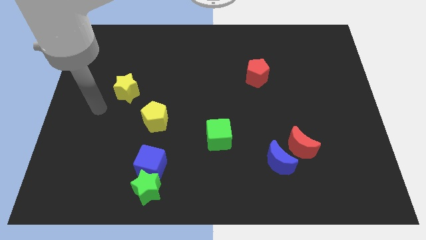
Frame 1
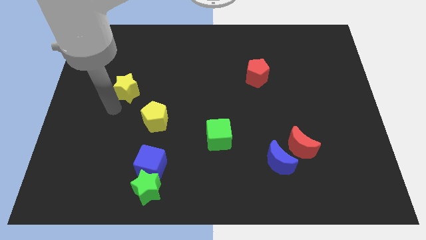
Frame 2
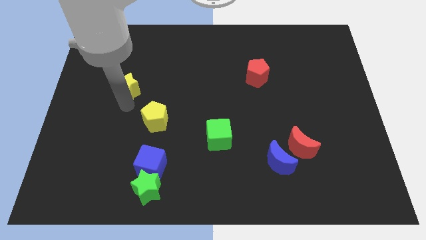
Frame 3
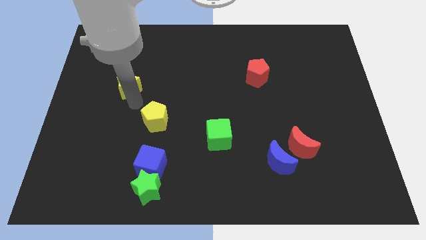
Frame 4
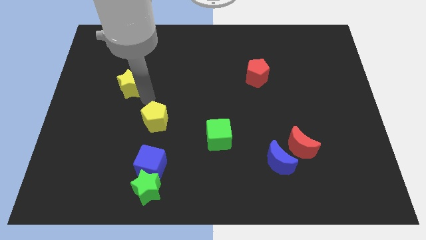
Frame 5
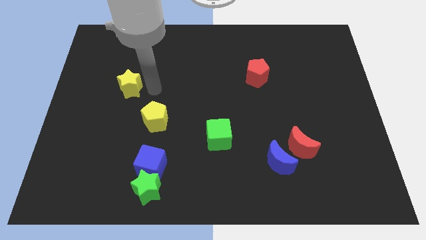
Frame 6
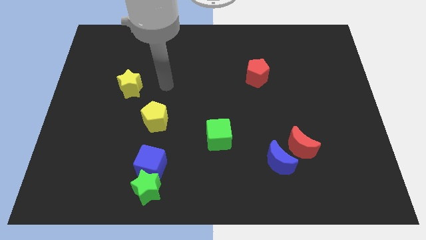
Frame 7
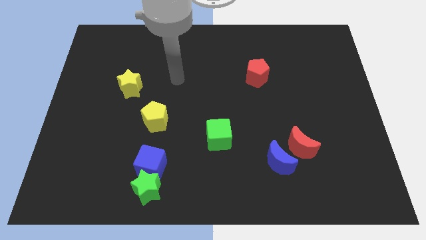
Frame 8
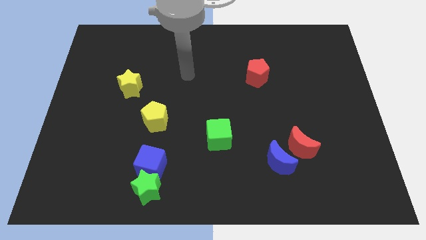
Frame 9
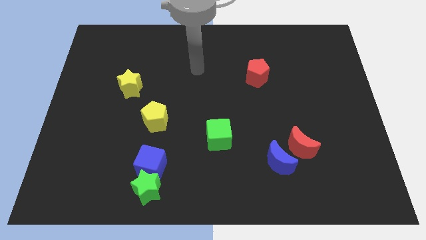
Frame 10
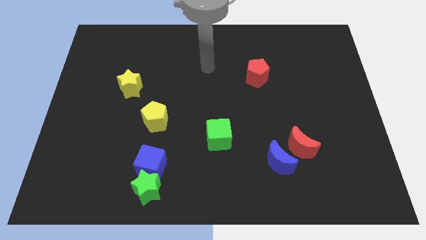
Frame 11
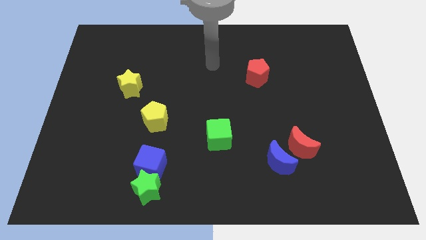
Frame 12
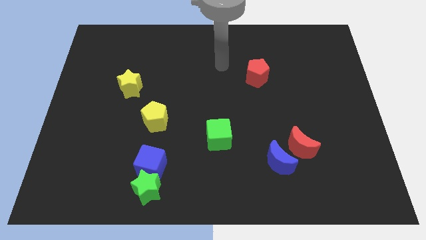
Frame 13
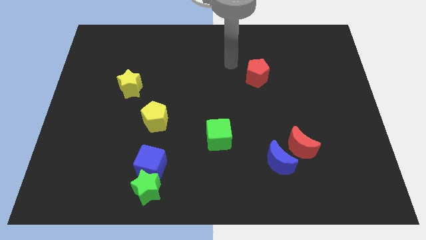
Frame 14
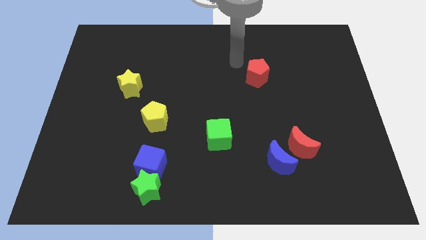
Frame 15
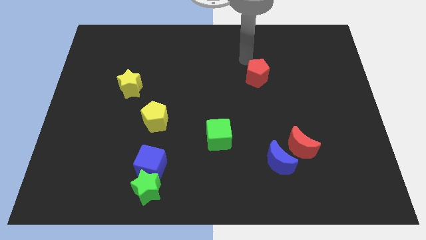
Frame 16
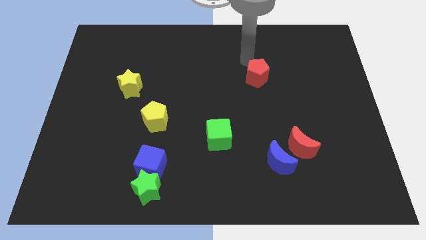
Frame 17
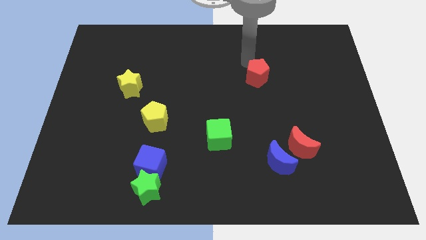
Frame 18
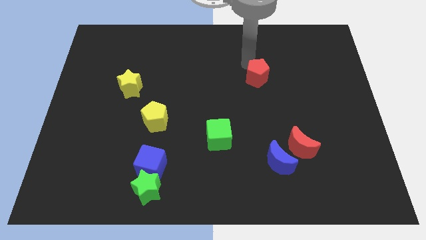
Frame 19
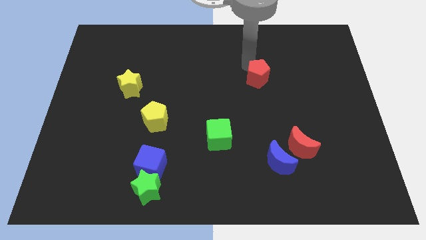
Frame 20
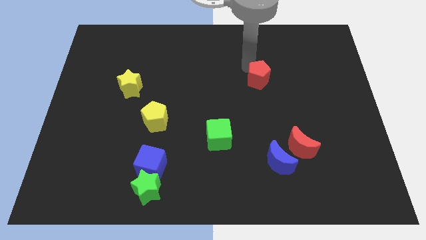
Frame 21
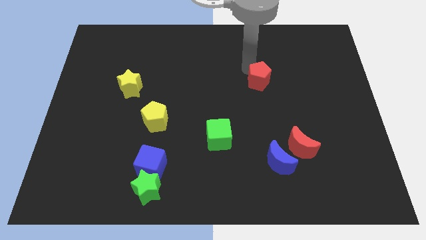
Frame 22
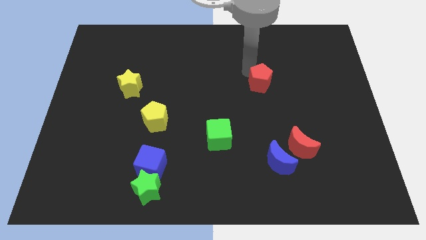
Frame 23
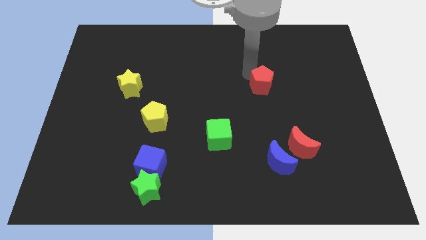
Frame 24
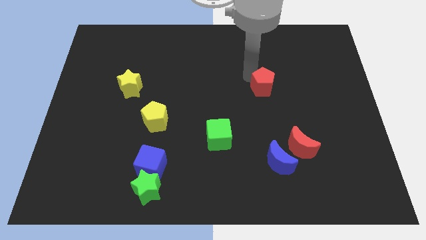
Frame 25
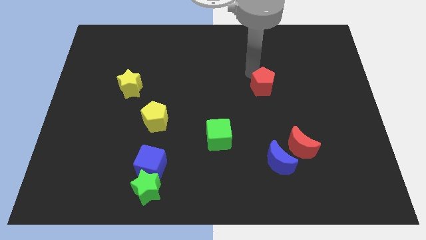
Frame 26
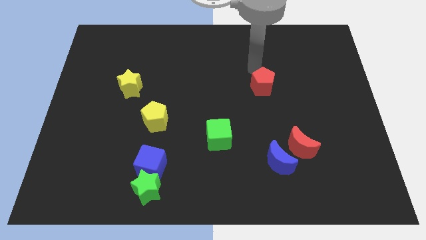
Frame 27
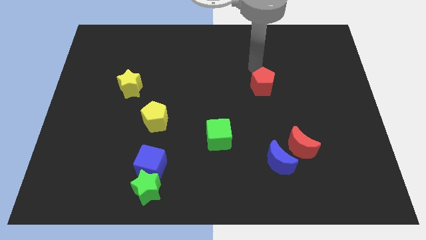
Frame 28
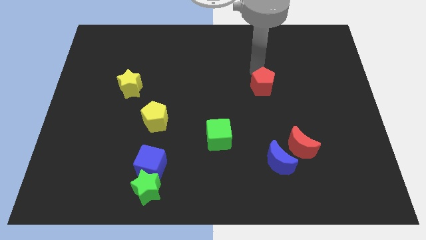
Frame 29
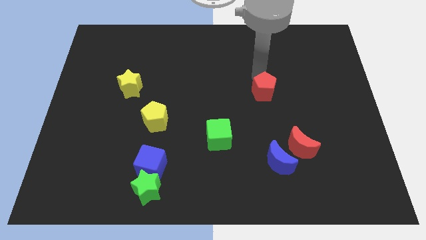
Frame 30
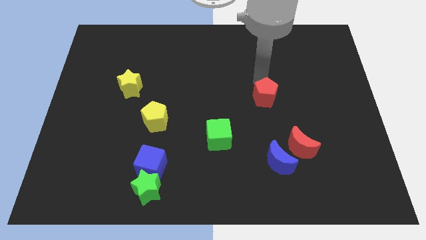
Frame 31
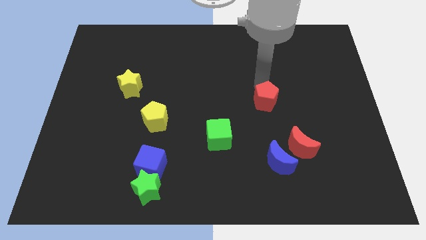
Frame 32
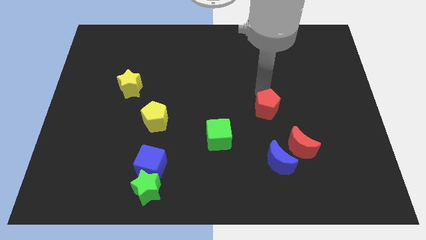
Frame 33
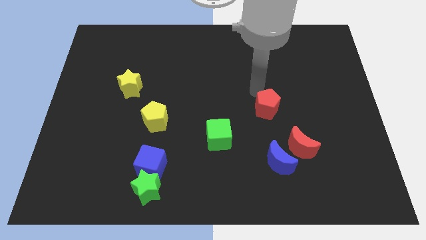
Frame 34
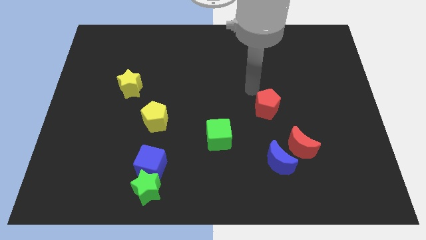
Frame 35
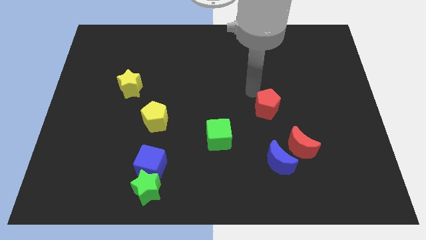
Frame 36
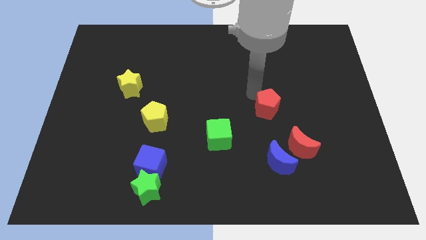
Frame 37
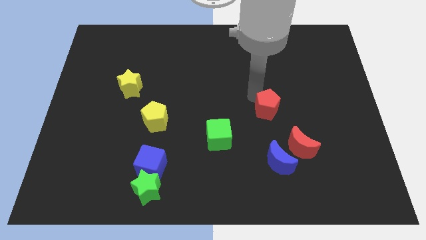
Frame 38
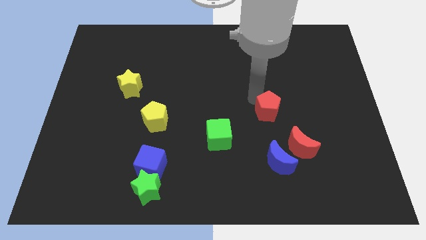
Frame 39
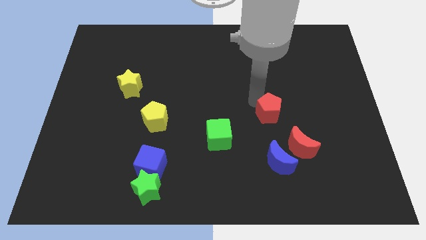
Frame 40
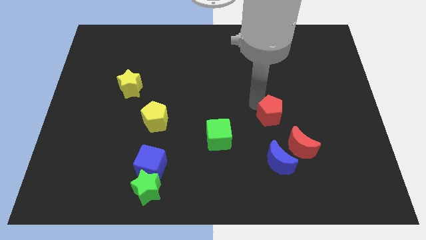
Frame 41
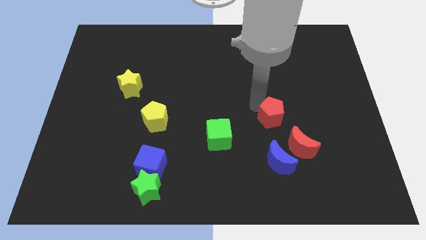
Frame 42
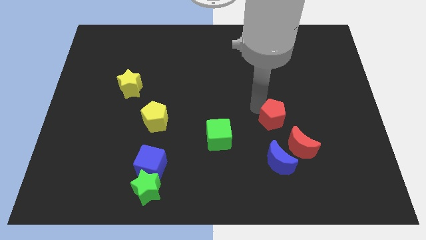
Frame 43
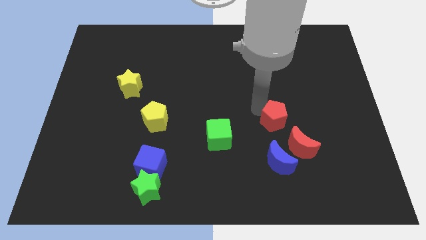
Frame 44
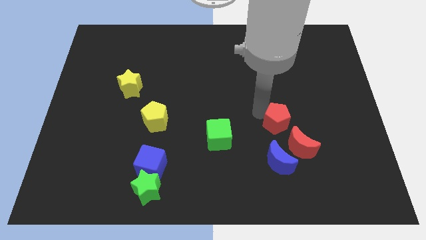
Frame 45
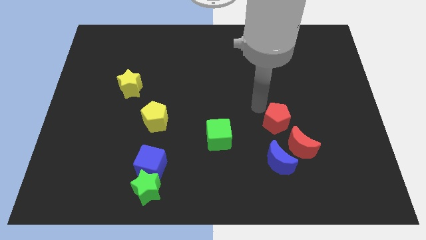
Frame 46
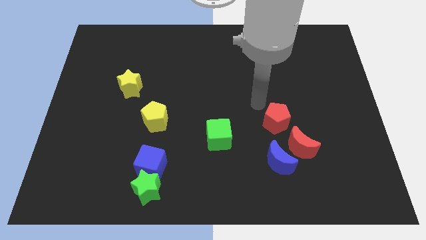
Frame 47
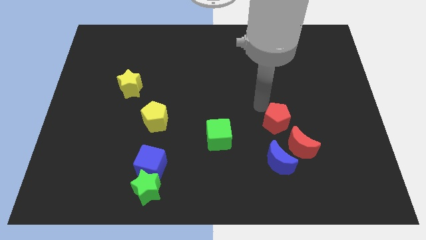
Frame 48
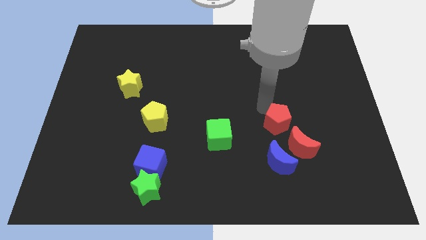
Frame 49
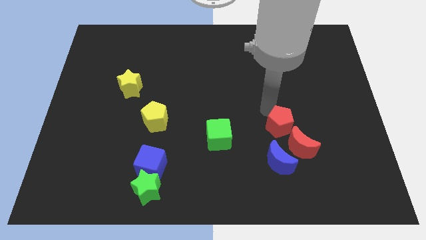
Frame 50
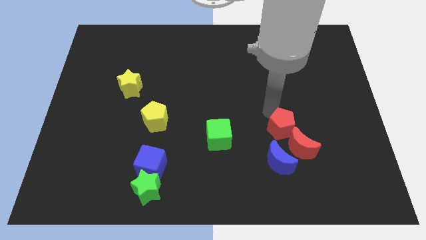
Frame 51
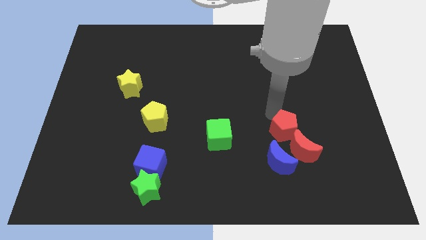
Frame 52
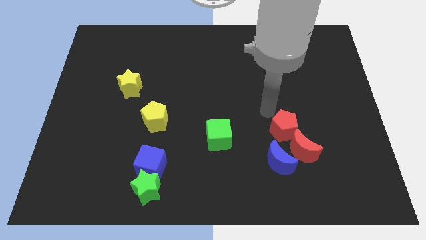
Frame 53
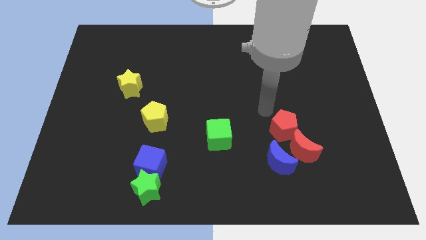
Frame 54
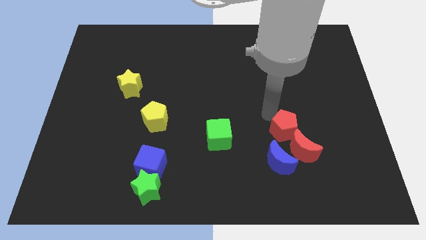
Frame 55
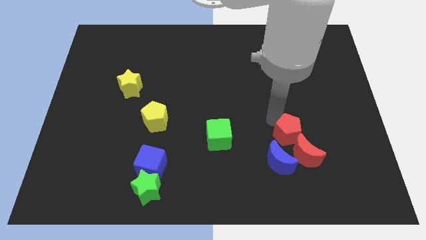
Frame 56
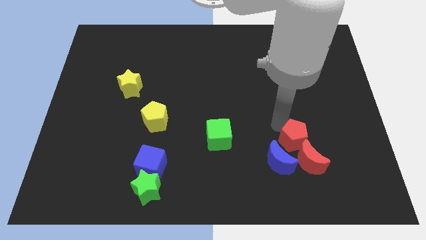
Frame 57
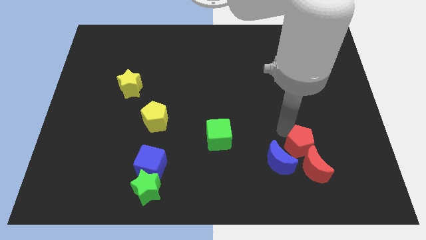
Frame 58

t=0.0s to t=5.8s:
put the red pentagon towards the red moon

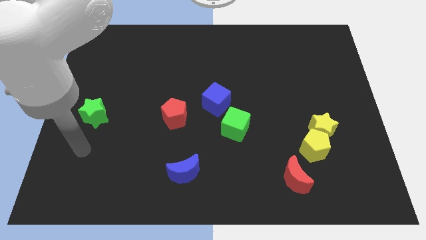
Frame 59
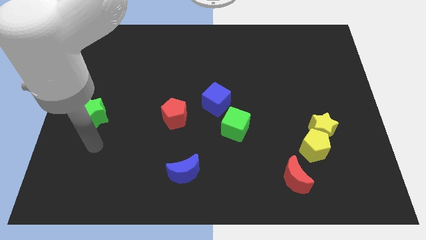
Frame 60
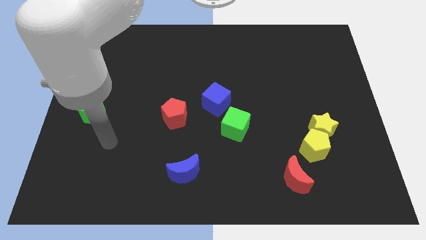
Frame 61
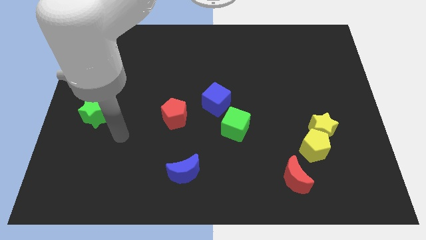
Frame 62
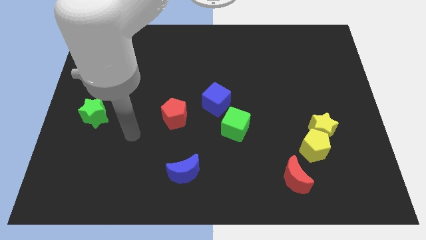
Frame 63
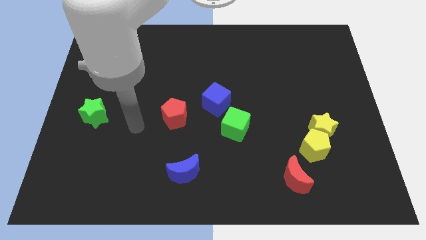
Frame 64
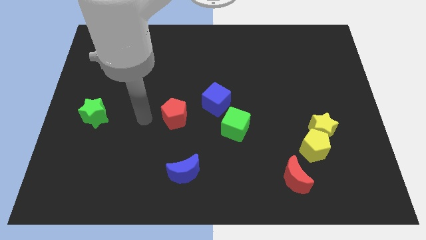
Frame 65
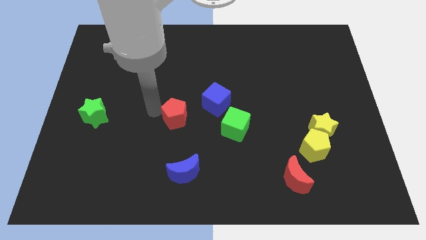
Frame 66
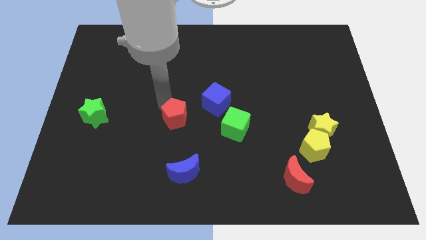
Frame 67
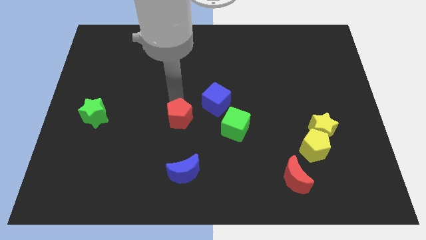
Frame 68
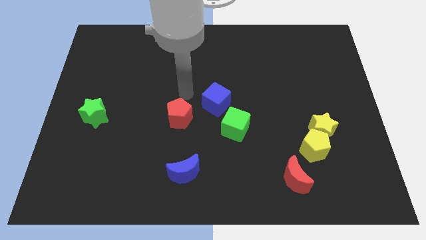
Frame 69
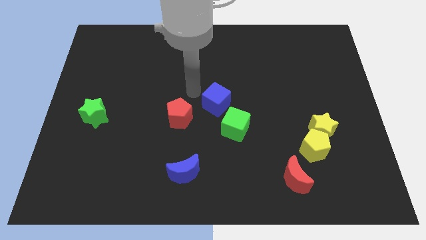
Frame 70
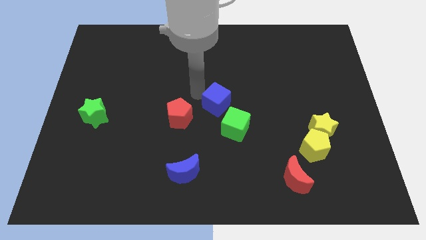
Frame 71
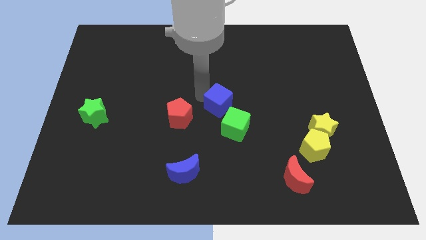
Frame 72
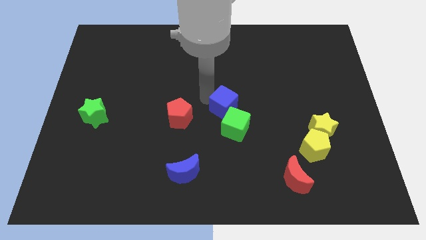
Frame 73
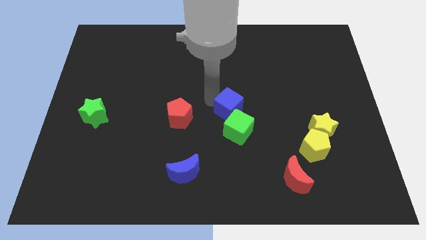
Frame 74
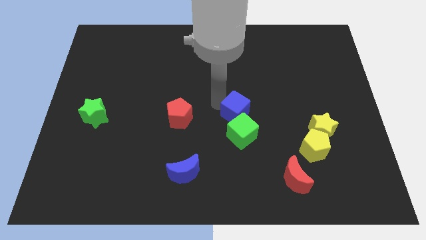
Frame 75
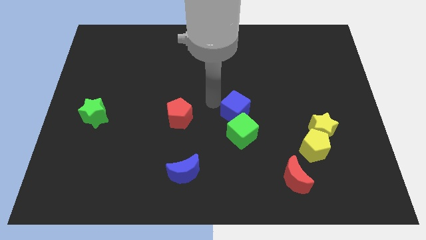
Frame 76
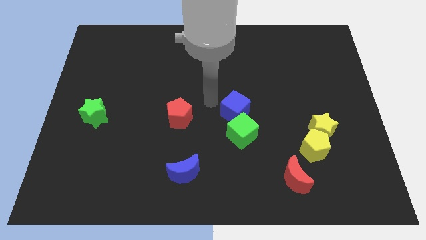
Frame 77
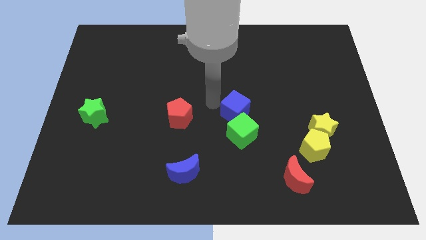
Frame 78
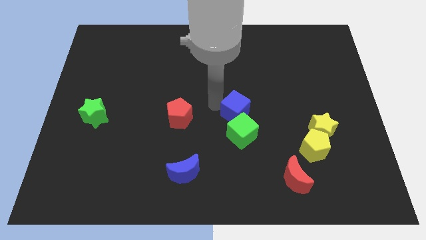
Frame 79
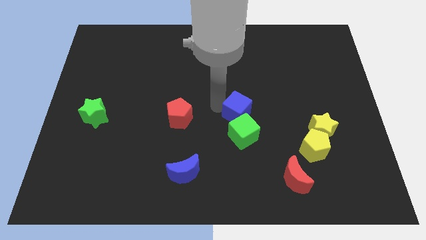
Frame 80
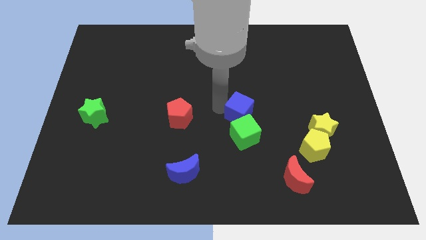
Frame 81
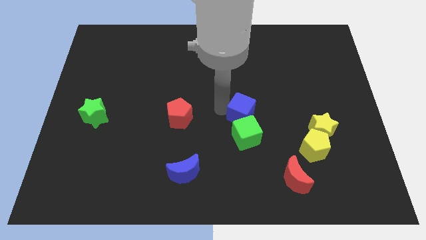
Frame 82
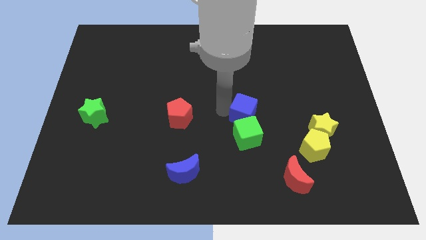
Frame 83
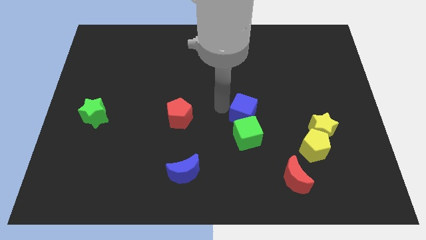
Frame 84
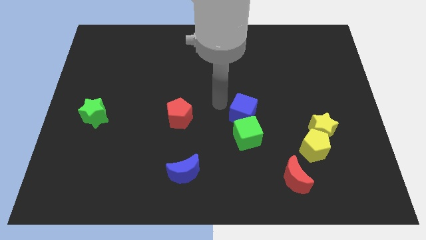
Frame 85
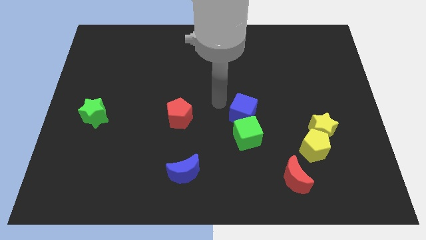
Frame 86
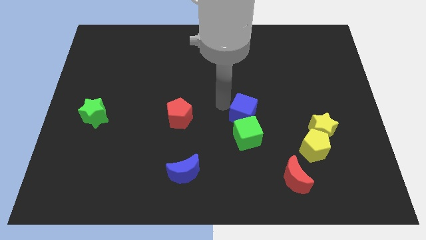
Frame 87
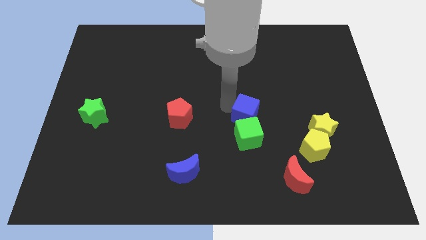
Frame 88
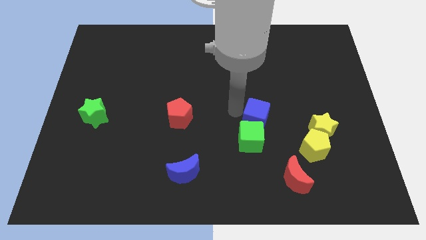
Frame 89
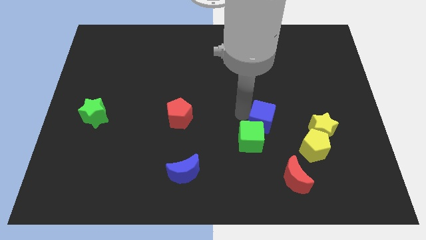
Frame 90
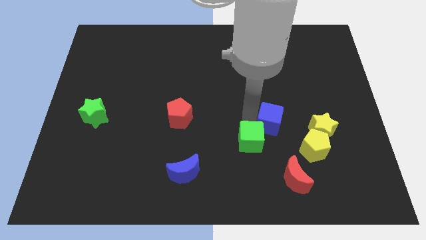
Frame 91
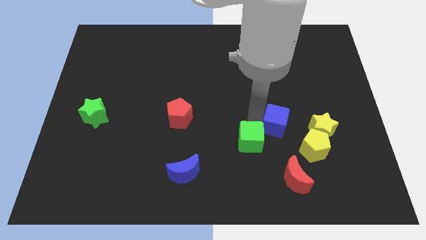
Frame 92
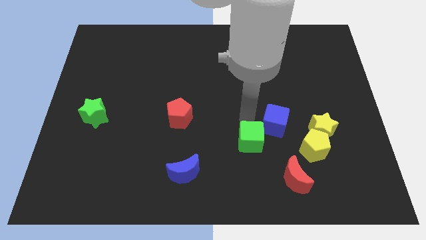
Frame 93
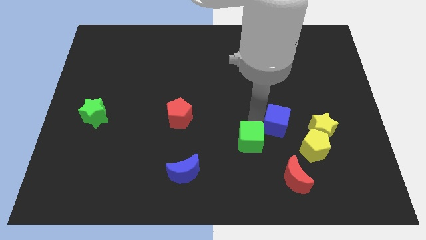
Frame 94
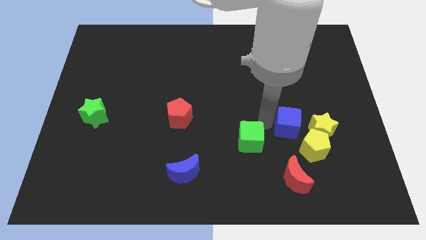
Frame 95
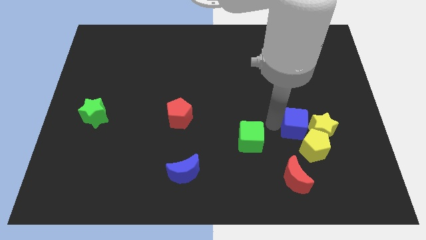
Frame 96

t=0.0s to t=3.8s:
put the blue cube to the yellow star
